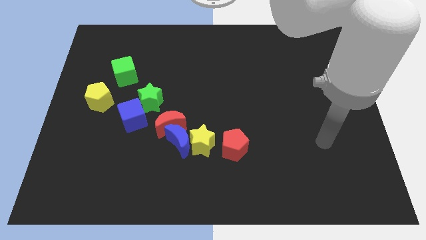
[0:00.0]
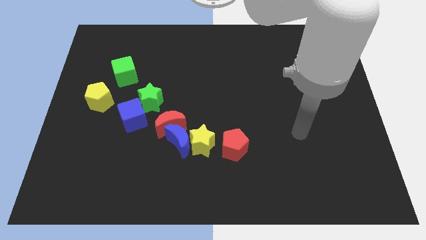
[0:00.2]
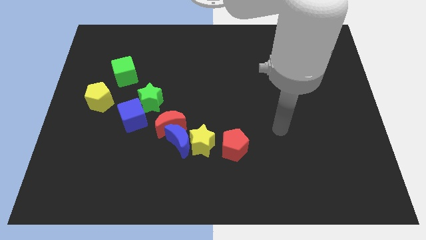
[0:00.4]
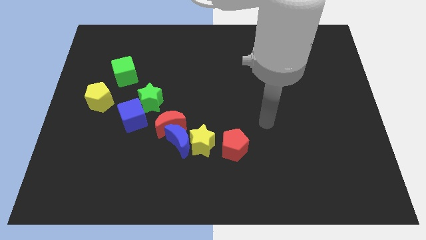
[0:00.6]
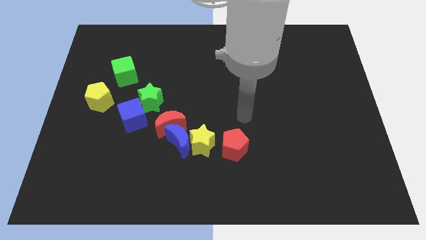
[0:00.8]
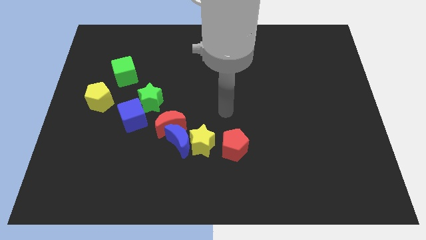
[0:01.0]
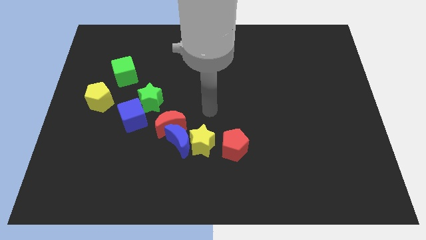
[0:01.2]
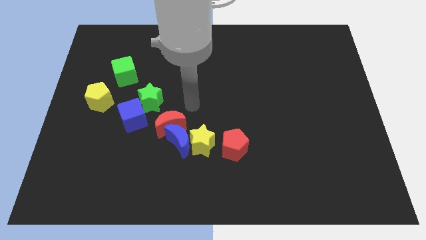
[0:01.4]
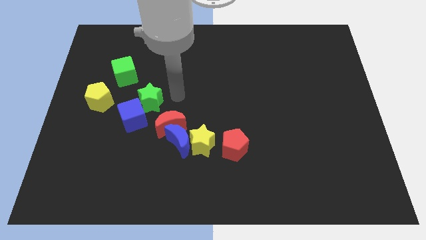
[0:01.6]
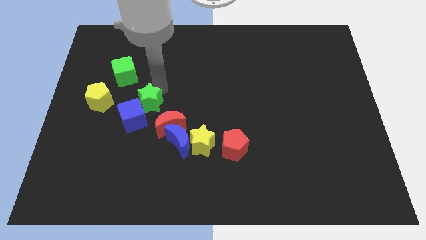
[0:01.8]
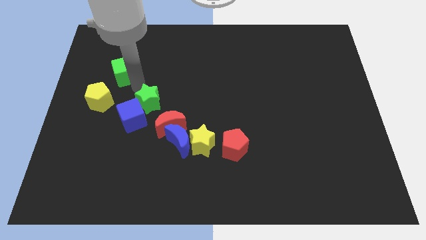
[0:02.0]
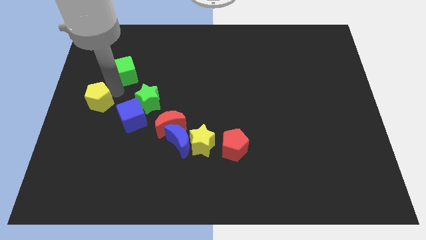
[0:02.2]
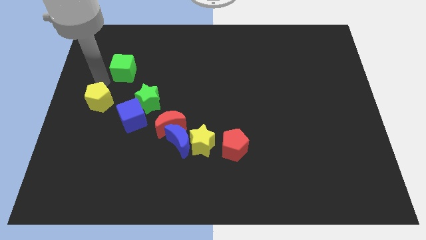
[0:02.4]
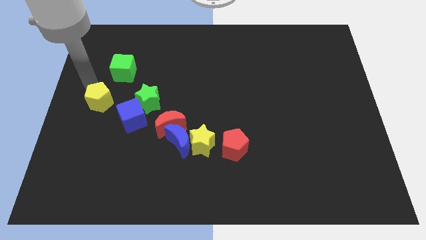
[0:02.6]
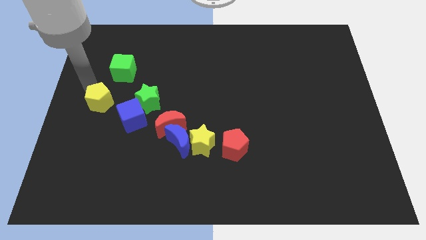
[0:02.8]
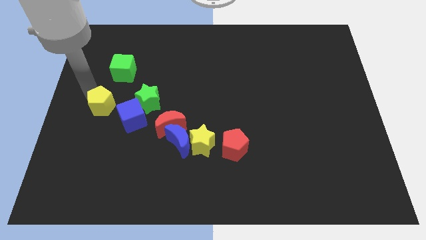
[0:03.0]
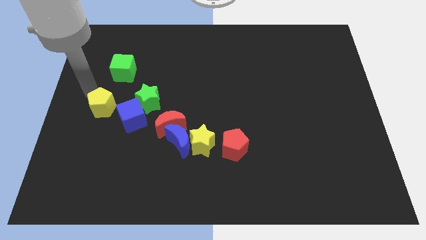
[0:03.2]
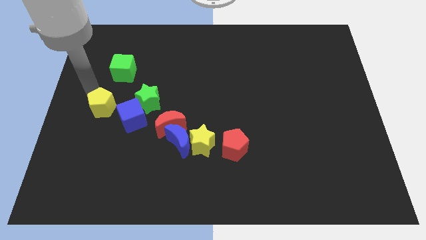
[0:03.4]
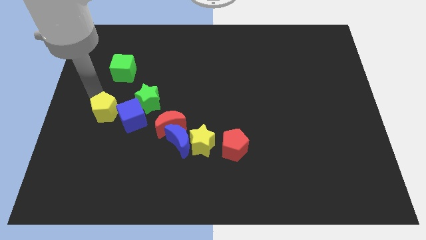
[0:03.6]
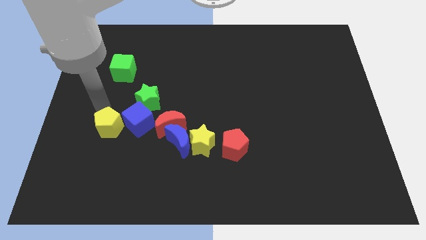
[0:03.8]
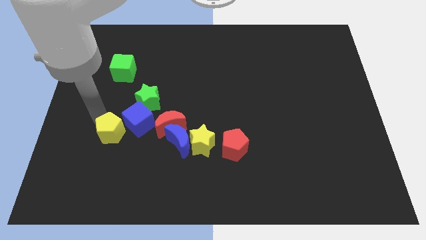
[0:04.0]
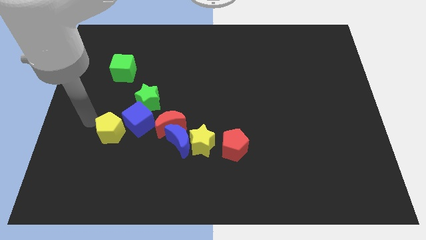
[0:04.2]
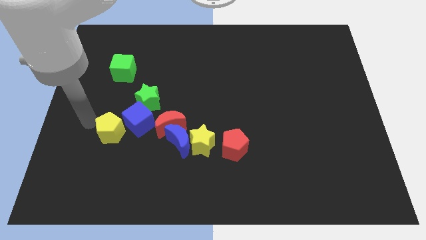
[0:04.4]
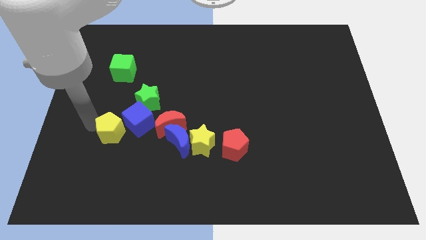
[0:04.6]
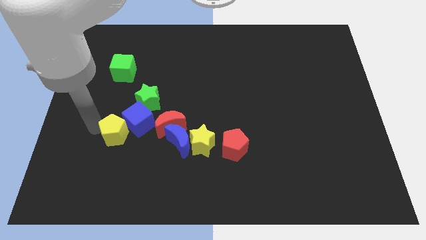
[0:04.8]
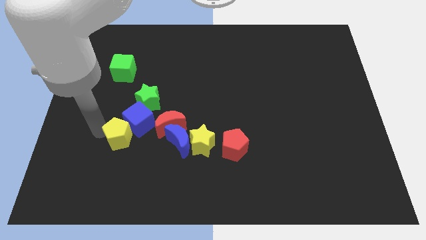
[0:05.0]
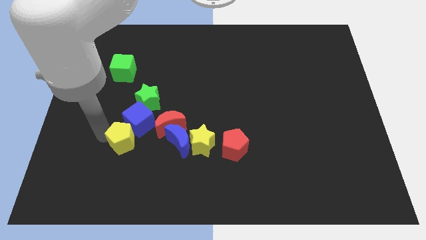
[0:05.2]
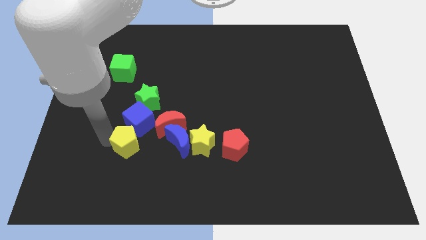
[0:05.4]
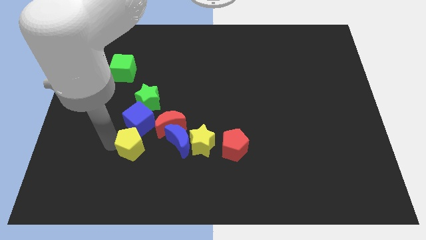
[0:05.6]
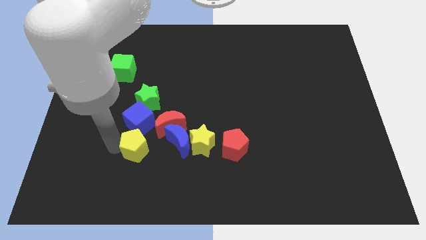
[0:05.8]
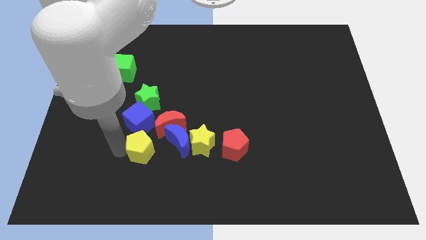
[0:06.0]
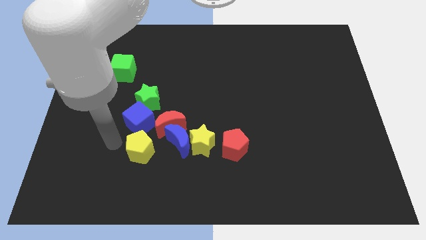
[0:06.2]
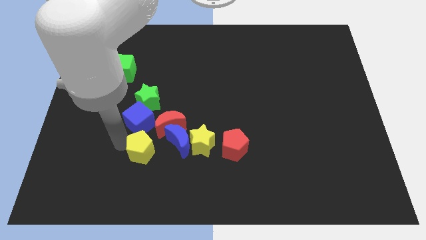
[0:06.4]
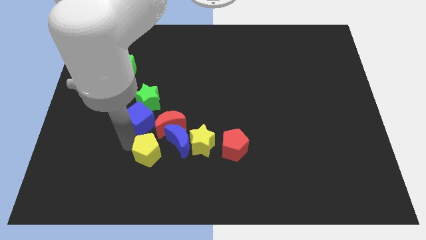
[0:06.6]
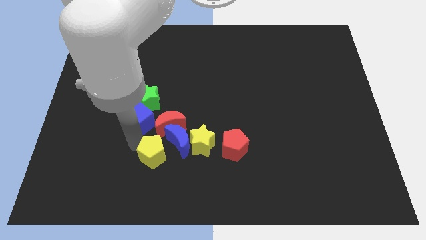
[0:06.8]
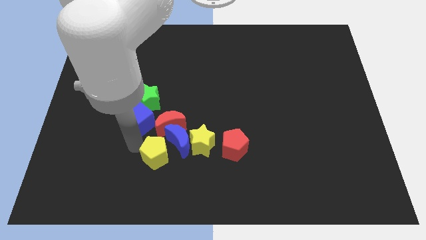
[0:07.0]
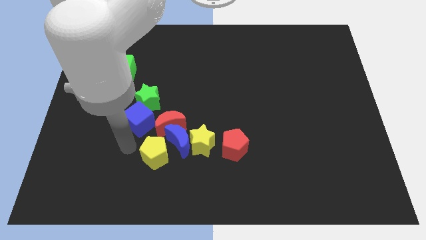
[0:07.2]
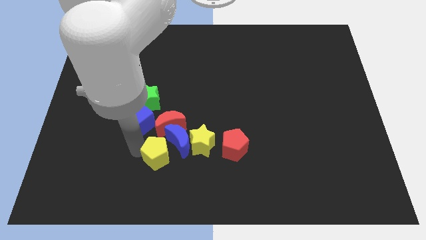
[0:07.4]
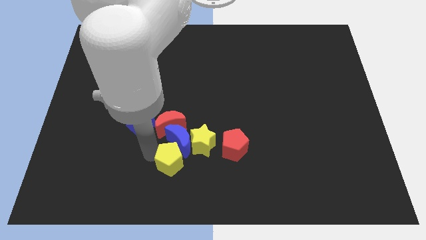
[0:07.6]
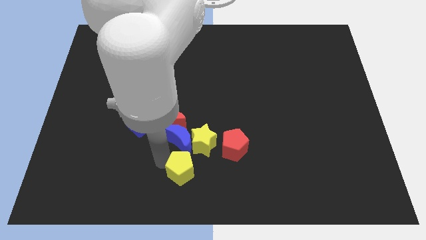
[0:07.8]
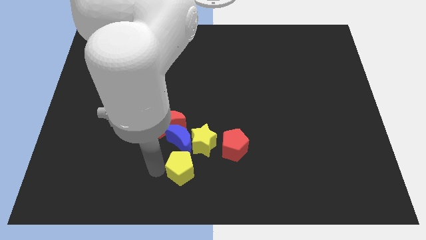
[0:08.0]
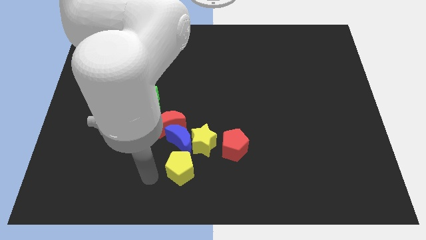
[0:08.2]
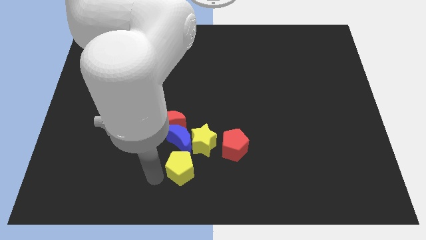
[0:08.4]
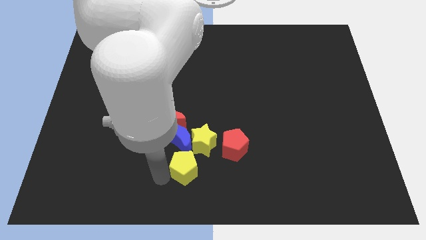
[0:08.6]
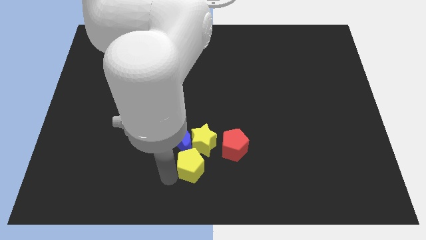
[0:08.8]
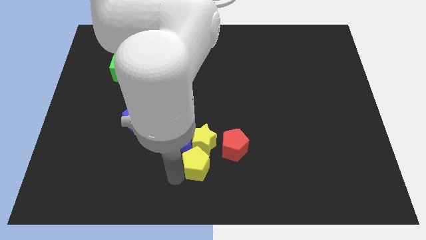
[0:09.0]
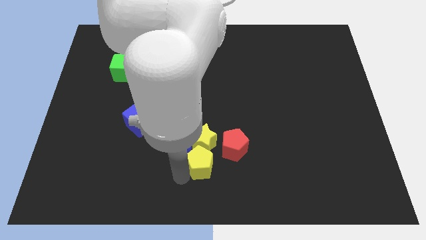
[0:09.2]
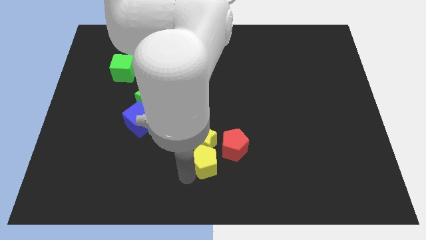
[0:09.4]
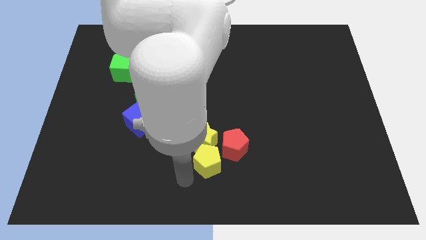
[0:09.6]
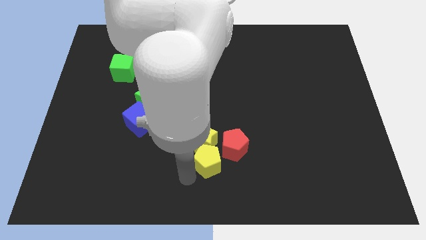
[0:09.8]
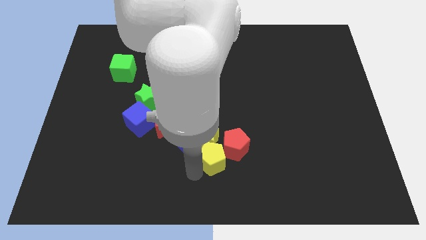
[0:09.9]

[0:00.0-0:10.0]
move the yellow pentagon close to the red pentagon

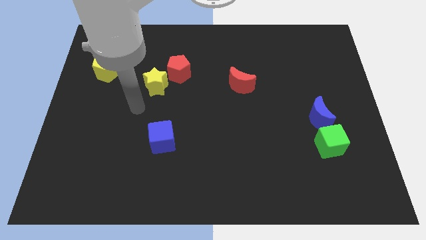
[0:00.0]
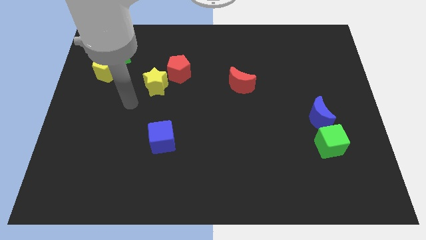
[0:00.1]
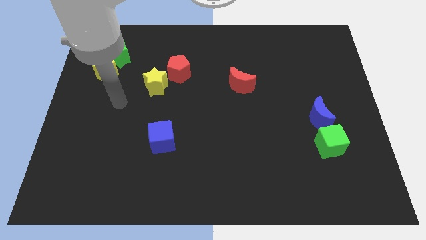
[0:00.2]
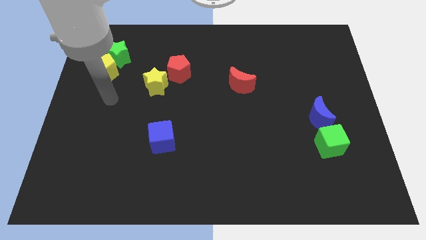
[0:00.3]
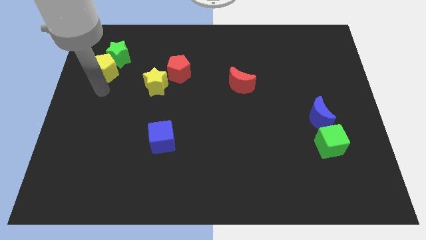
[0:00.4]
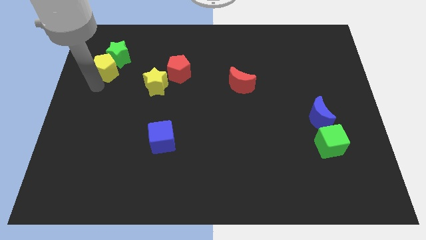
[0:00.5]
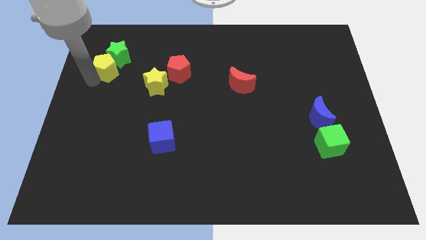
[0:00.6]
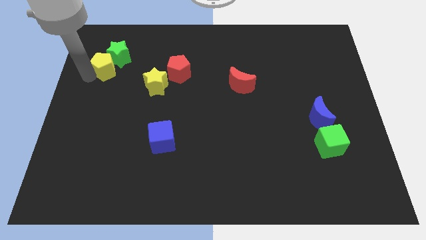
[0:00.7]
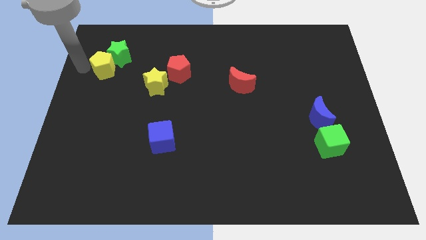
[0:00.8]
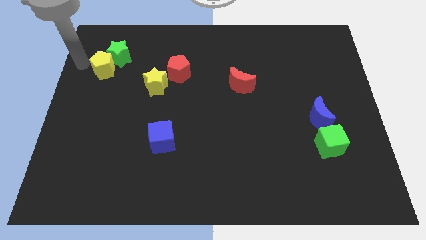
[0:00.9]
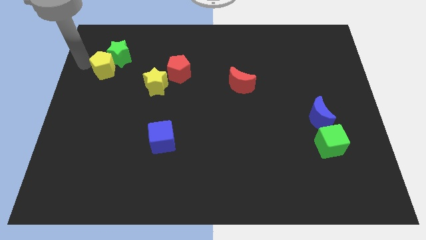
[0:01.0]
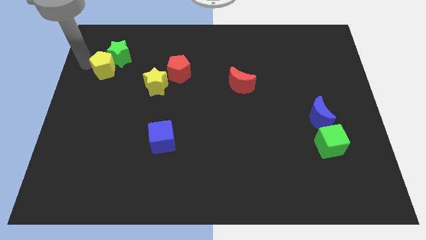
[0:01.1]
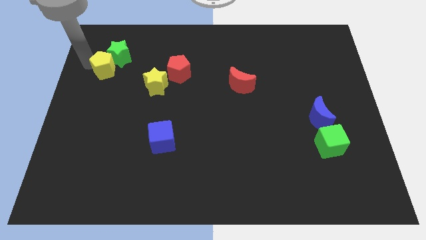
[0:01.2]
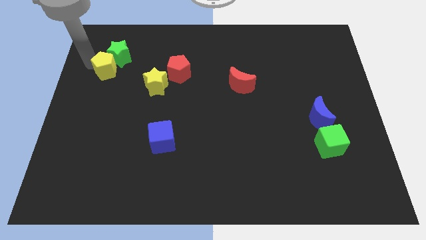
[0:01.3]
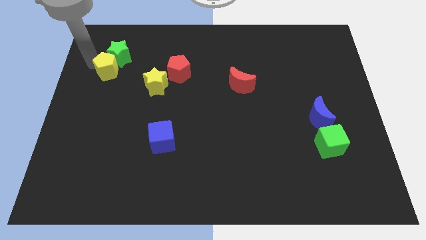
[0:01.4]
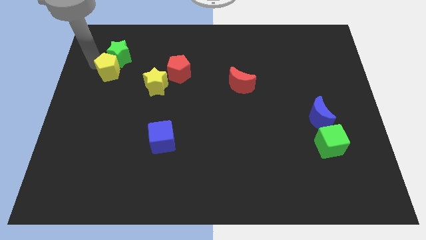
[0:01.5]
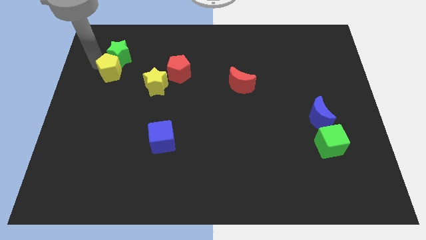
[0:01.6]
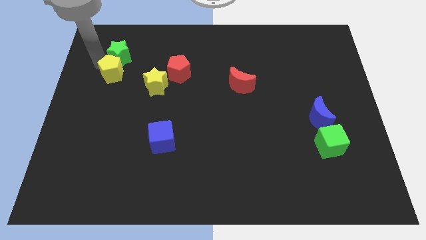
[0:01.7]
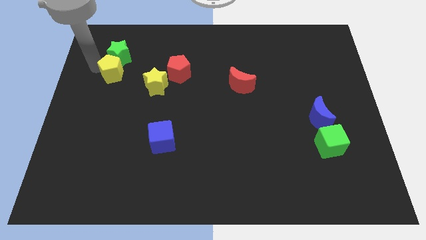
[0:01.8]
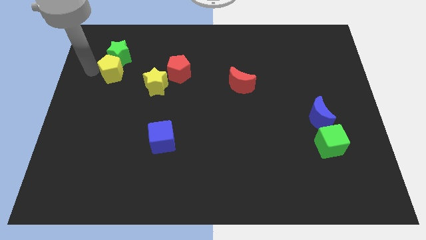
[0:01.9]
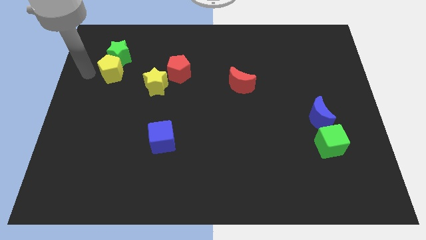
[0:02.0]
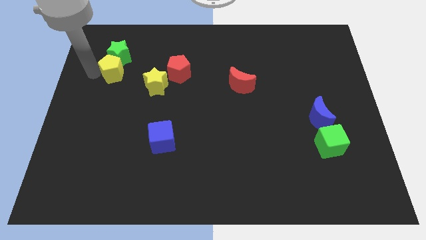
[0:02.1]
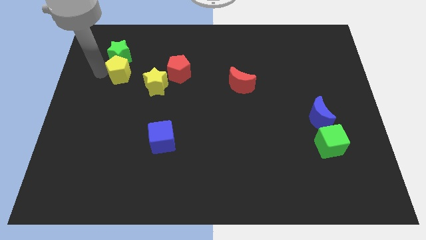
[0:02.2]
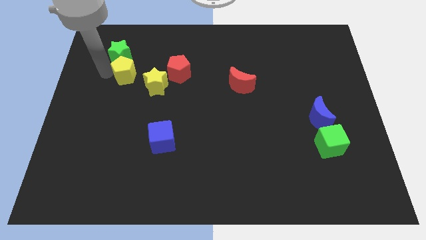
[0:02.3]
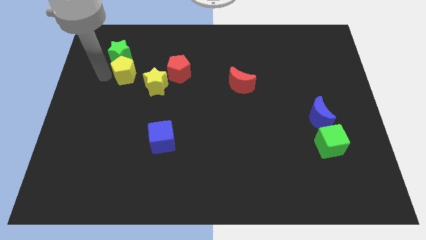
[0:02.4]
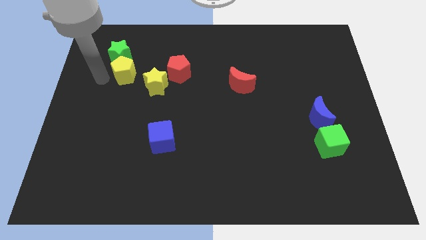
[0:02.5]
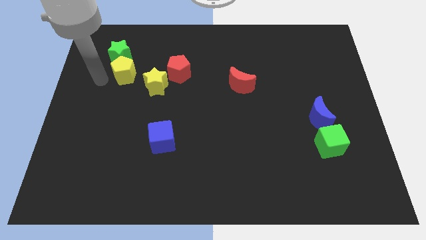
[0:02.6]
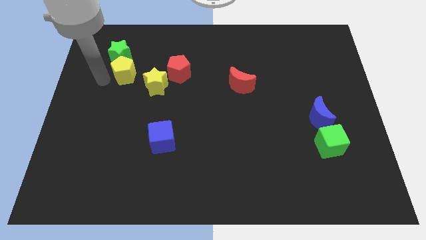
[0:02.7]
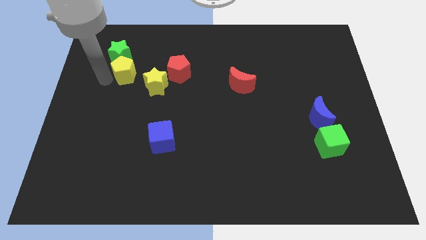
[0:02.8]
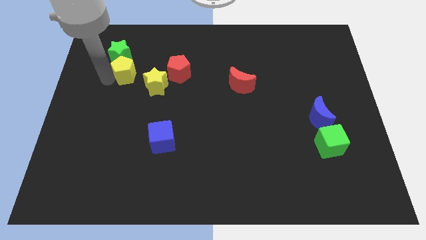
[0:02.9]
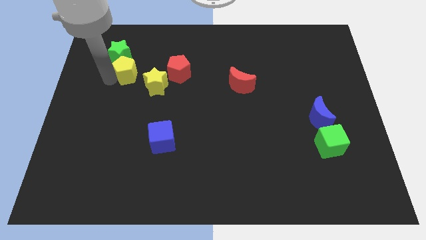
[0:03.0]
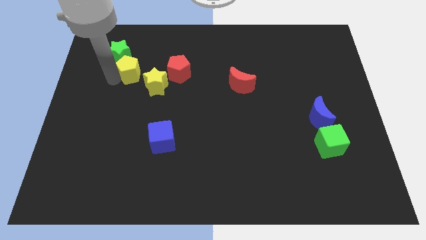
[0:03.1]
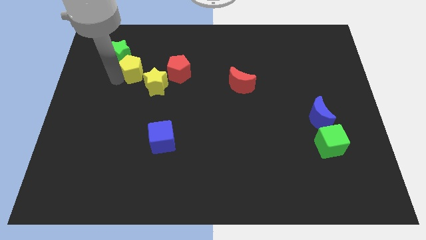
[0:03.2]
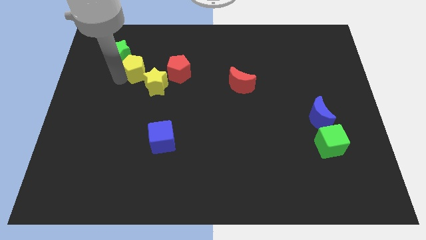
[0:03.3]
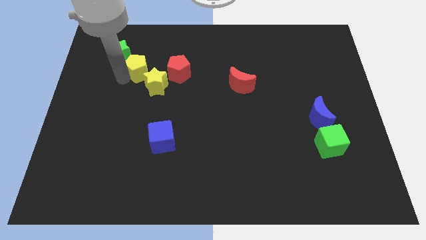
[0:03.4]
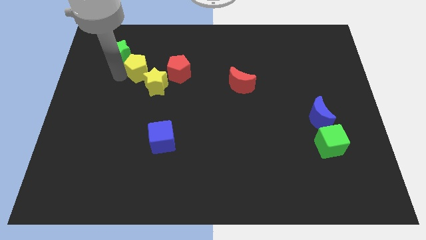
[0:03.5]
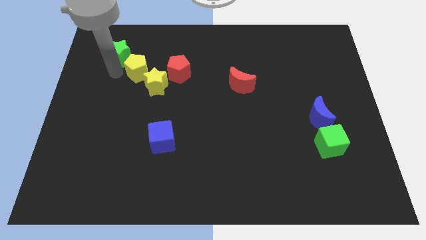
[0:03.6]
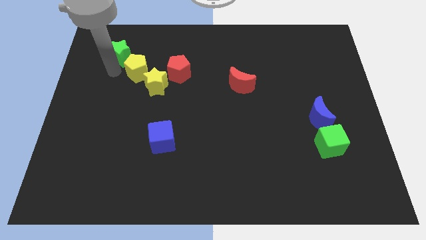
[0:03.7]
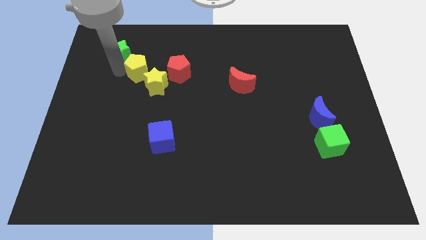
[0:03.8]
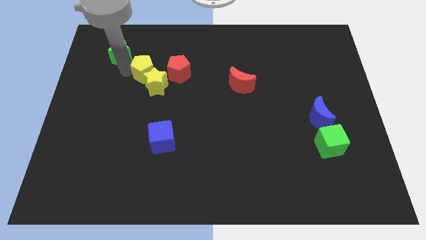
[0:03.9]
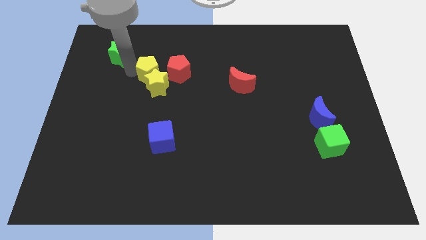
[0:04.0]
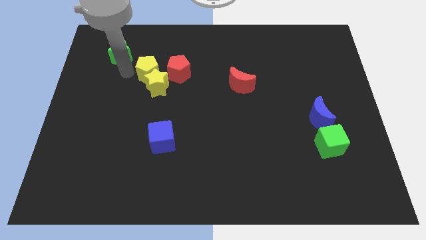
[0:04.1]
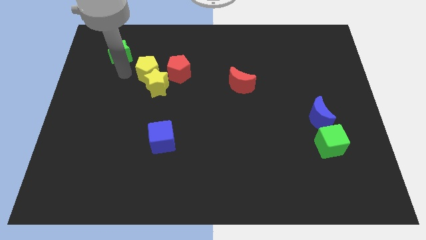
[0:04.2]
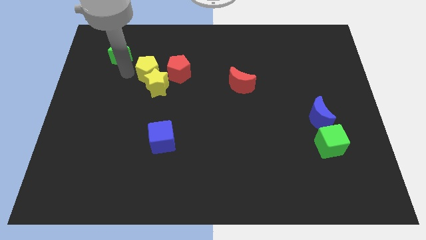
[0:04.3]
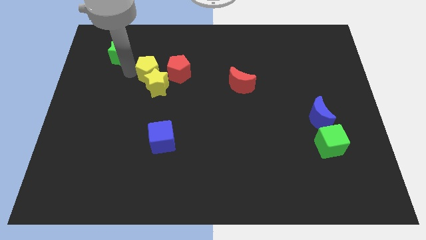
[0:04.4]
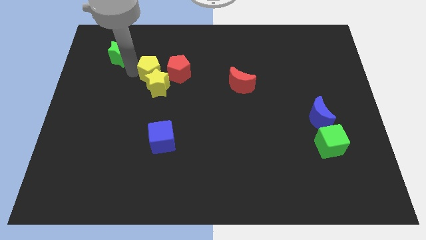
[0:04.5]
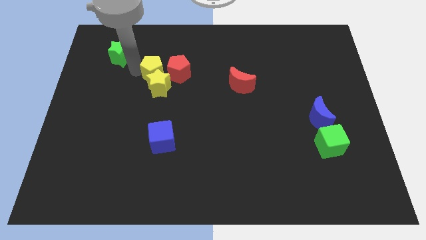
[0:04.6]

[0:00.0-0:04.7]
put the yellow pentagon close to the red pentagon
